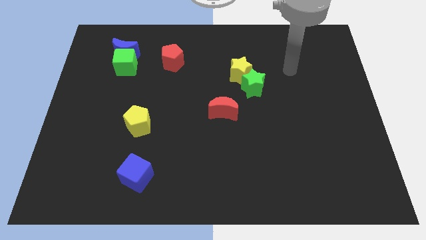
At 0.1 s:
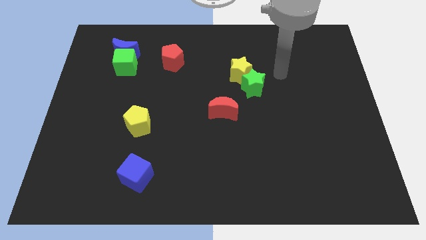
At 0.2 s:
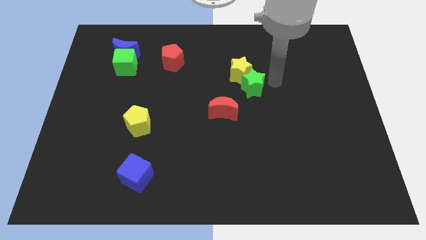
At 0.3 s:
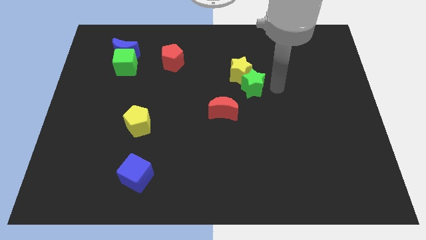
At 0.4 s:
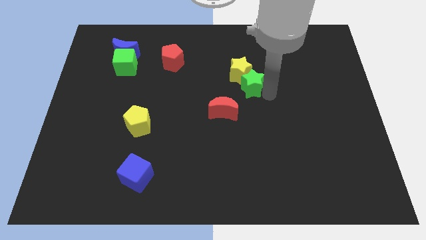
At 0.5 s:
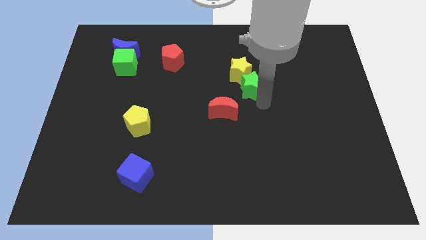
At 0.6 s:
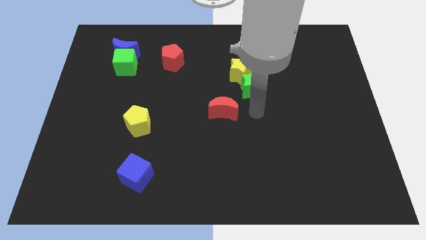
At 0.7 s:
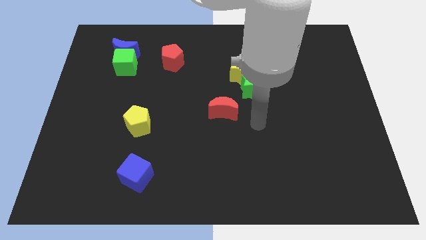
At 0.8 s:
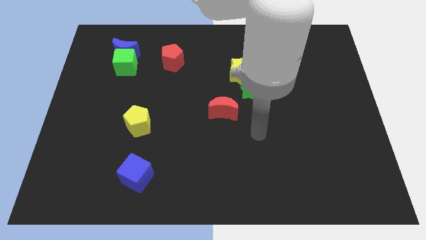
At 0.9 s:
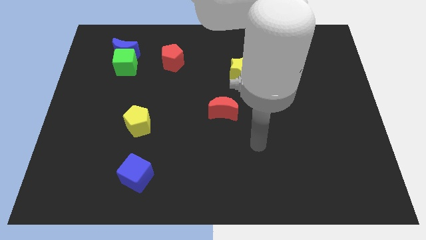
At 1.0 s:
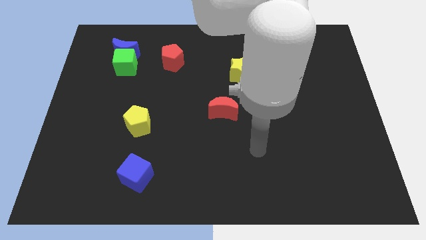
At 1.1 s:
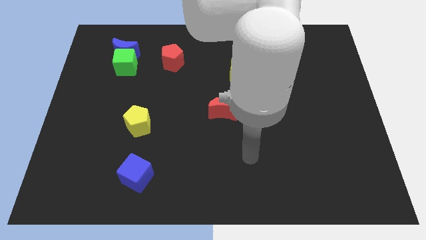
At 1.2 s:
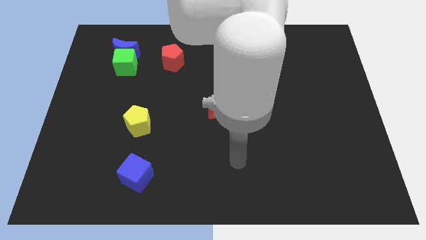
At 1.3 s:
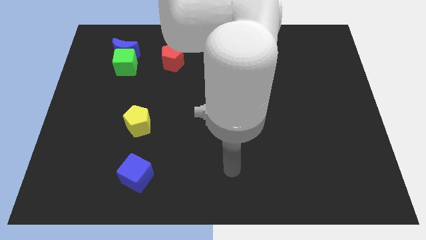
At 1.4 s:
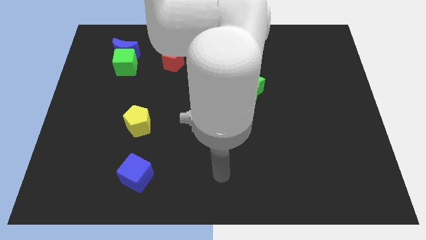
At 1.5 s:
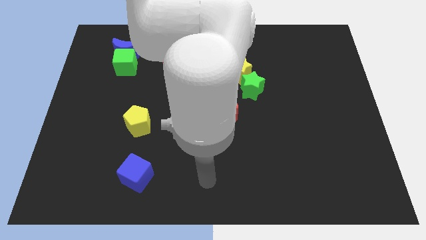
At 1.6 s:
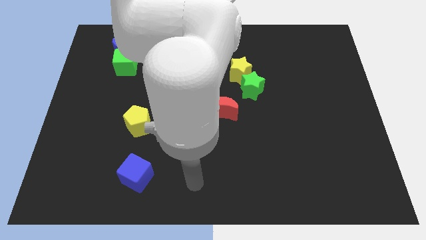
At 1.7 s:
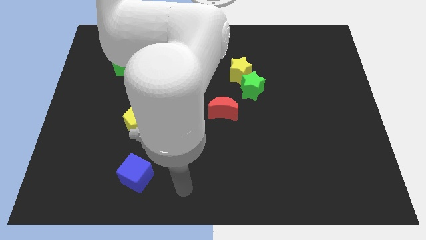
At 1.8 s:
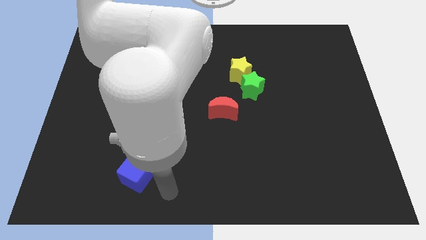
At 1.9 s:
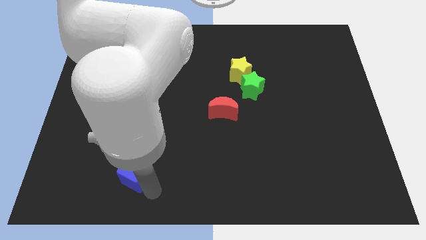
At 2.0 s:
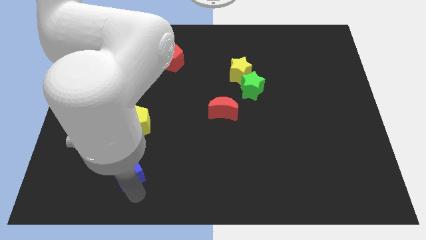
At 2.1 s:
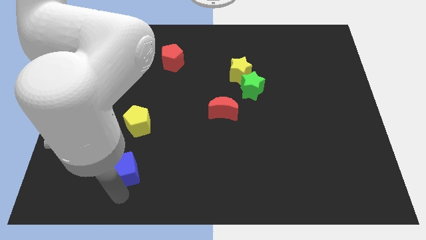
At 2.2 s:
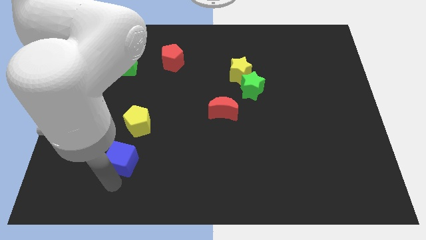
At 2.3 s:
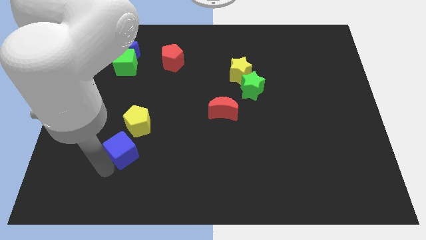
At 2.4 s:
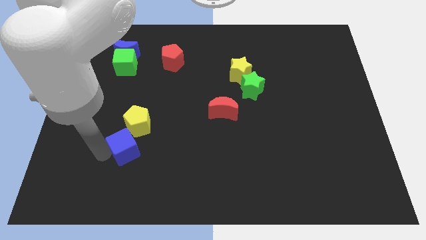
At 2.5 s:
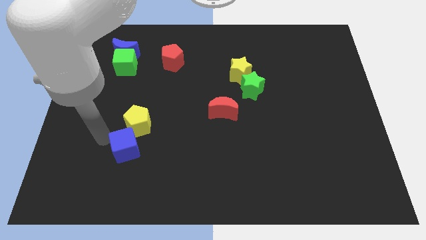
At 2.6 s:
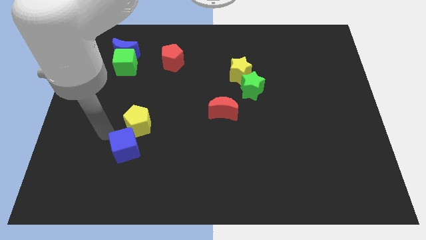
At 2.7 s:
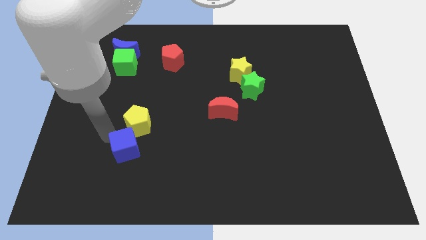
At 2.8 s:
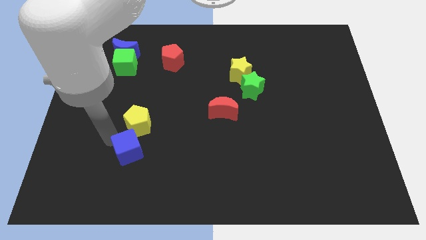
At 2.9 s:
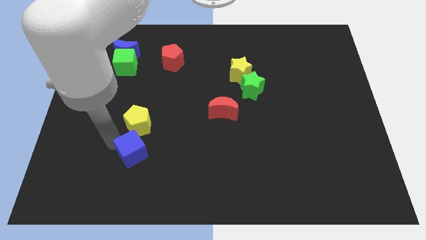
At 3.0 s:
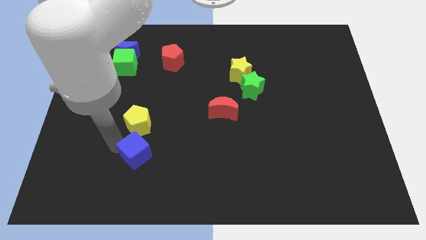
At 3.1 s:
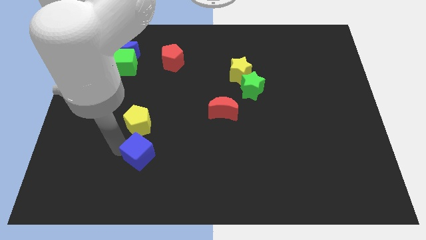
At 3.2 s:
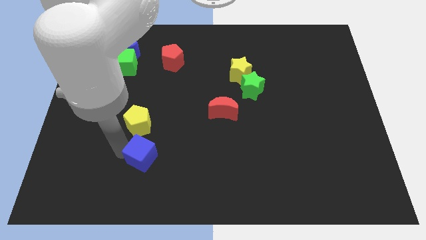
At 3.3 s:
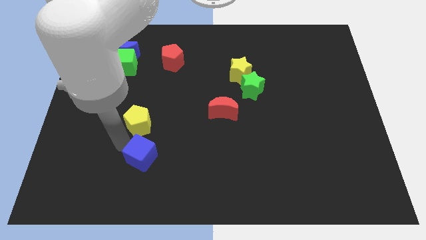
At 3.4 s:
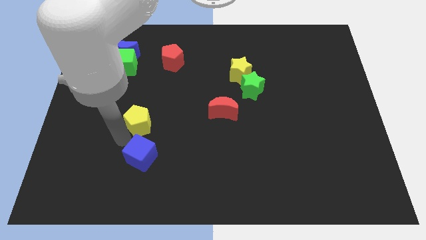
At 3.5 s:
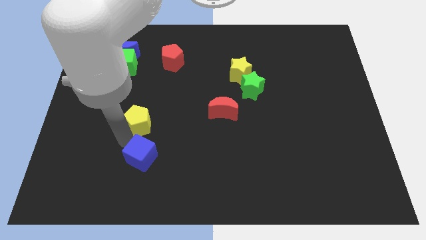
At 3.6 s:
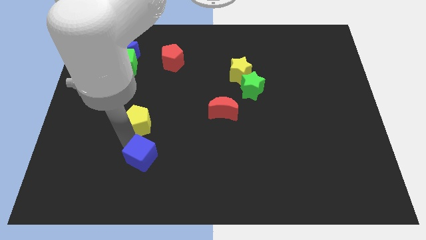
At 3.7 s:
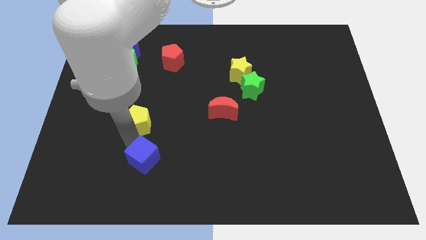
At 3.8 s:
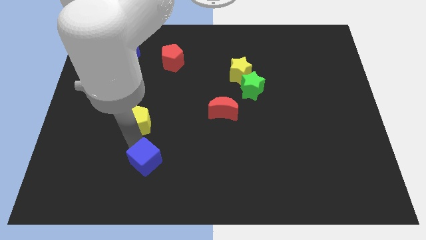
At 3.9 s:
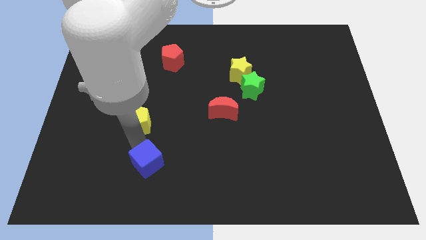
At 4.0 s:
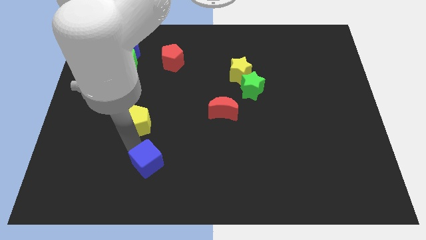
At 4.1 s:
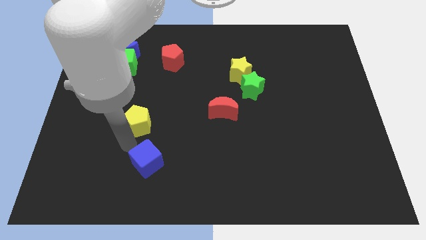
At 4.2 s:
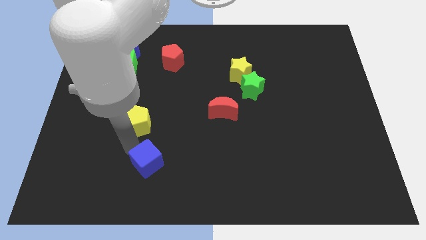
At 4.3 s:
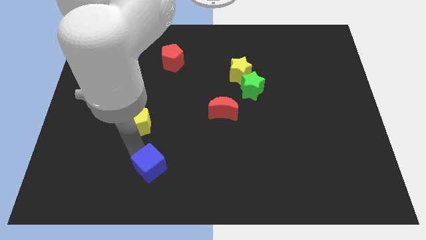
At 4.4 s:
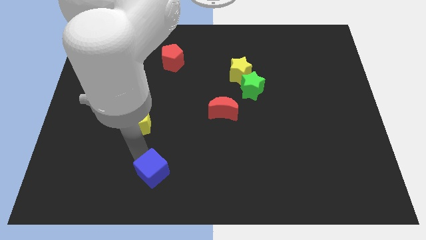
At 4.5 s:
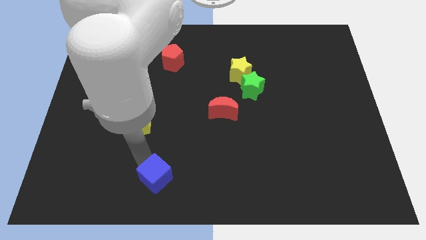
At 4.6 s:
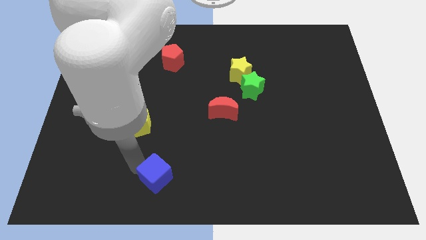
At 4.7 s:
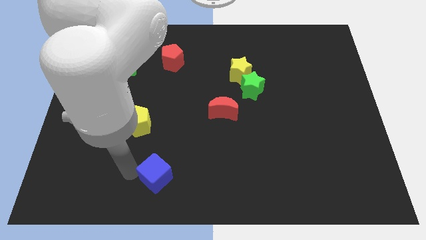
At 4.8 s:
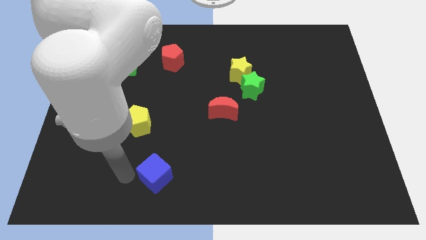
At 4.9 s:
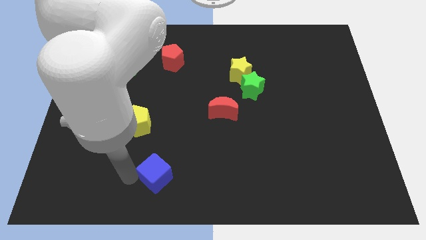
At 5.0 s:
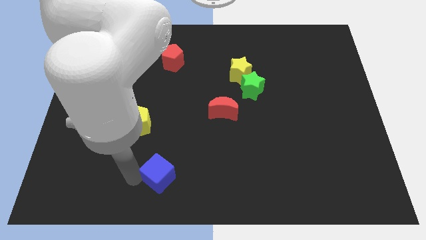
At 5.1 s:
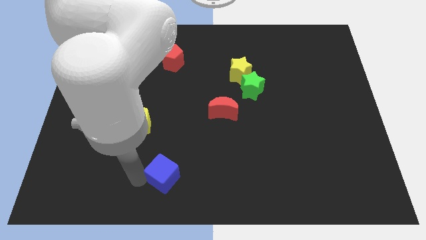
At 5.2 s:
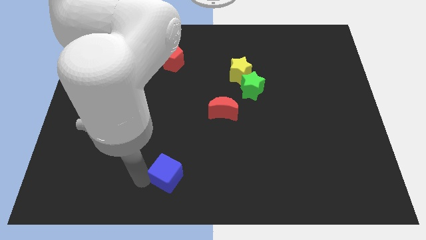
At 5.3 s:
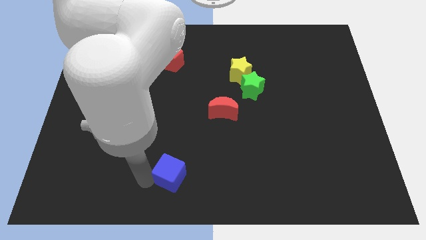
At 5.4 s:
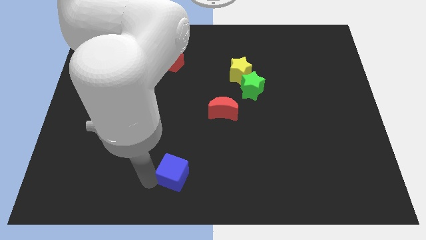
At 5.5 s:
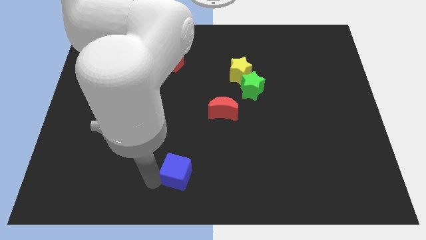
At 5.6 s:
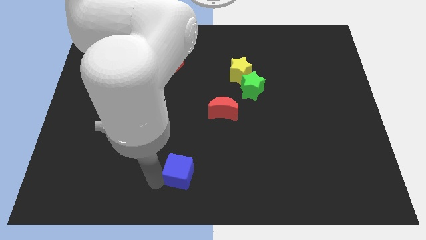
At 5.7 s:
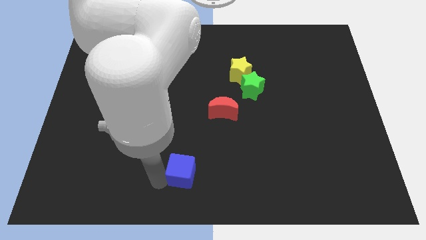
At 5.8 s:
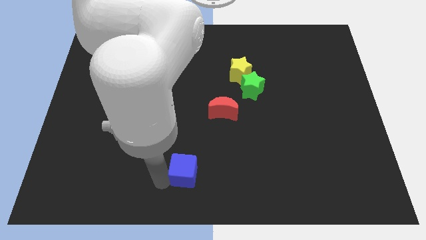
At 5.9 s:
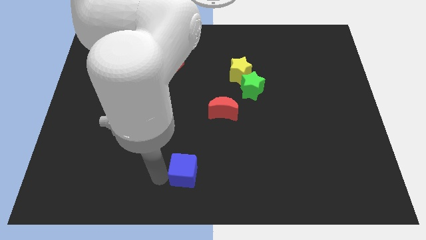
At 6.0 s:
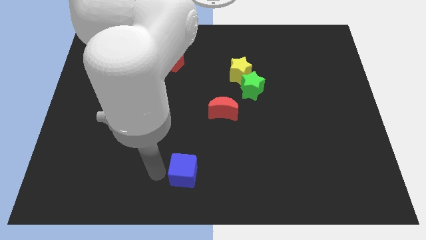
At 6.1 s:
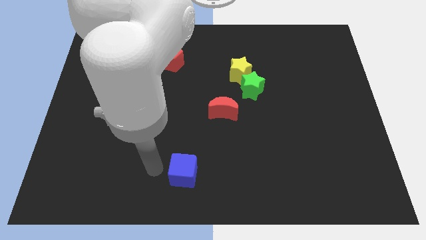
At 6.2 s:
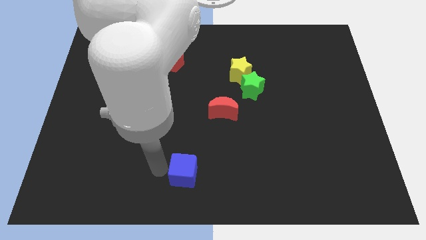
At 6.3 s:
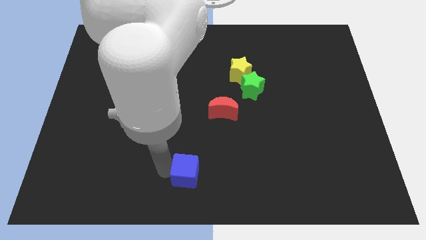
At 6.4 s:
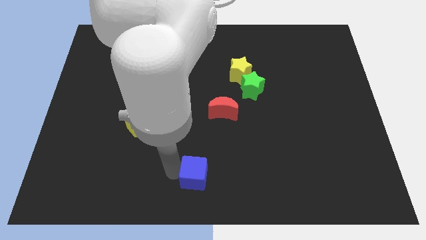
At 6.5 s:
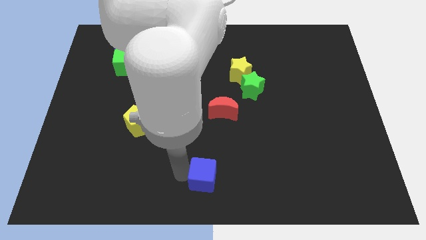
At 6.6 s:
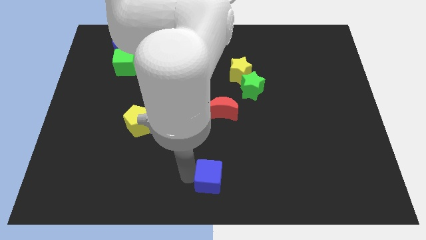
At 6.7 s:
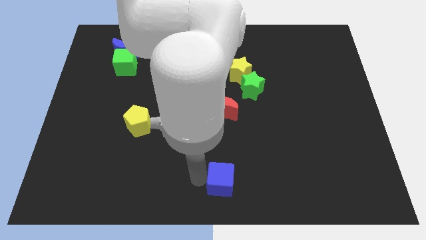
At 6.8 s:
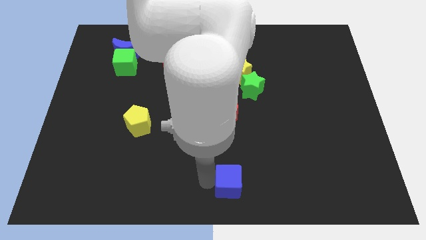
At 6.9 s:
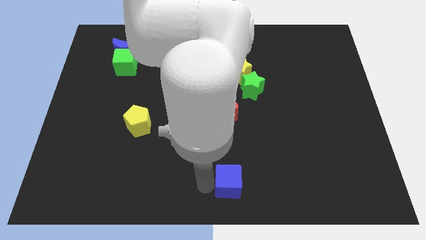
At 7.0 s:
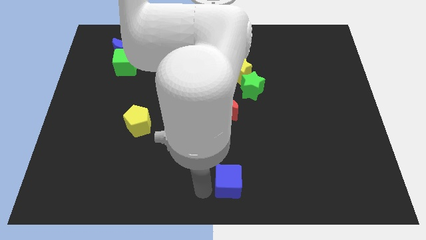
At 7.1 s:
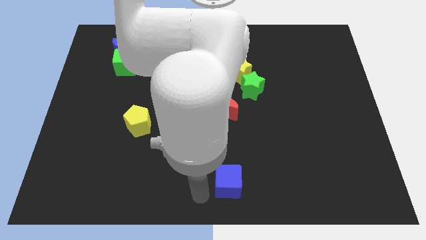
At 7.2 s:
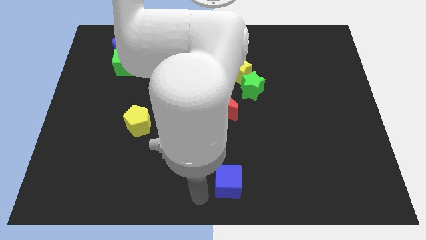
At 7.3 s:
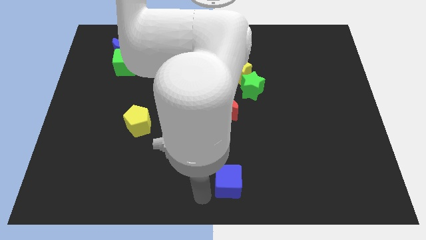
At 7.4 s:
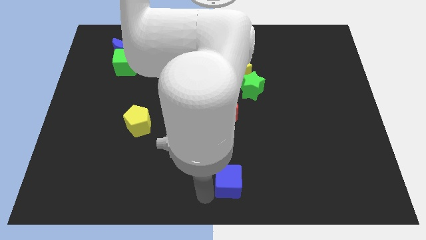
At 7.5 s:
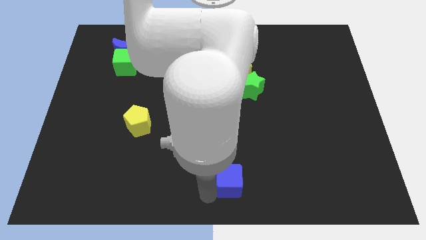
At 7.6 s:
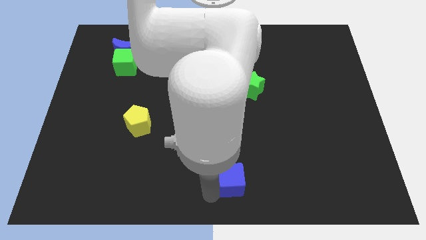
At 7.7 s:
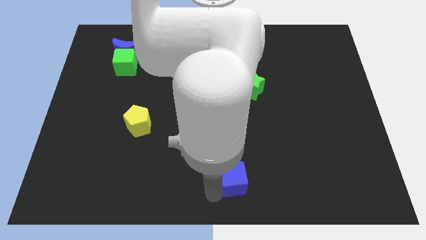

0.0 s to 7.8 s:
move the blue cube to the right

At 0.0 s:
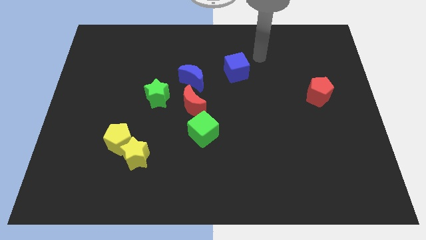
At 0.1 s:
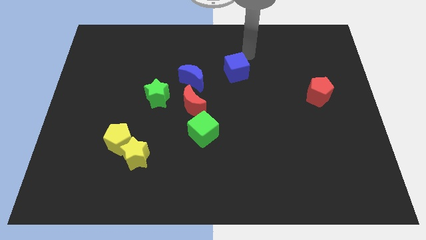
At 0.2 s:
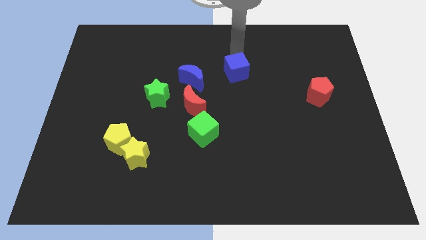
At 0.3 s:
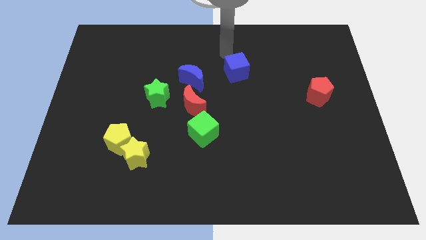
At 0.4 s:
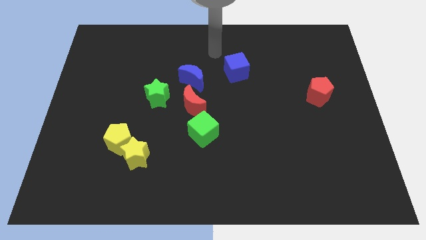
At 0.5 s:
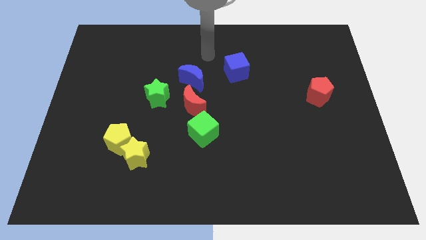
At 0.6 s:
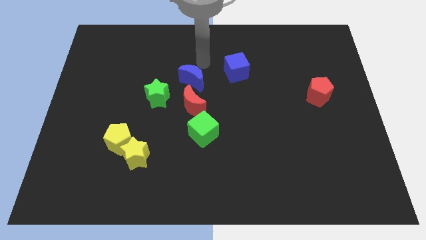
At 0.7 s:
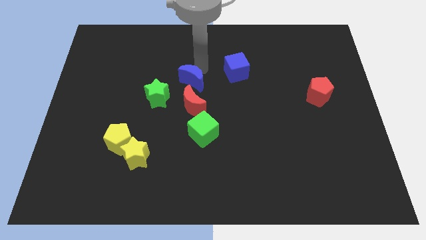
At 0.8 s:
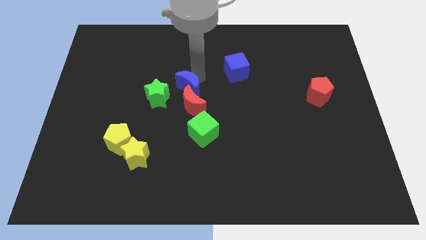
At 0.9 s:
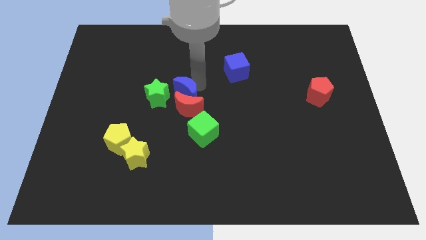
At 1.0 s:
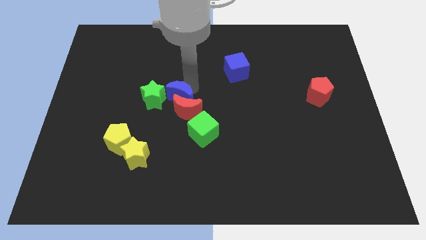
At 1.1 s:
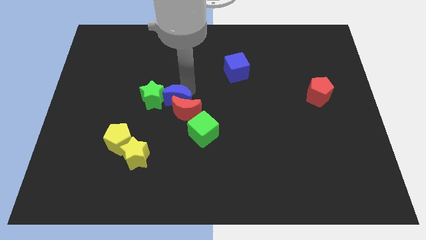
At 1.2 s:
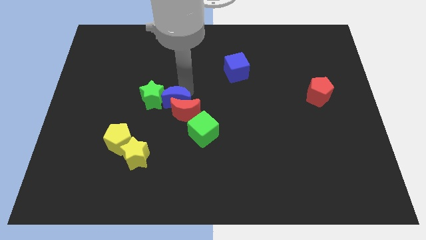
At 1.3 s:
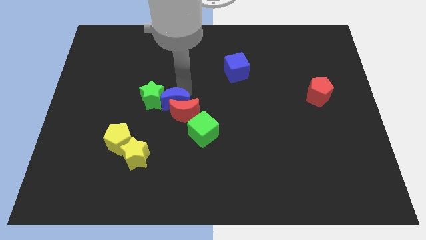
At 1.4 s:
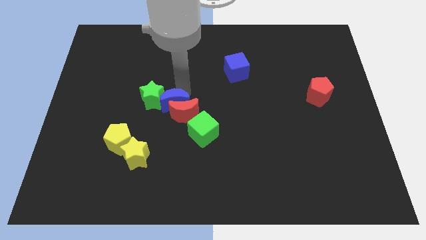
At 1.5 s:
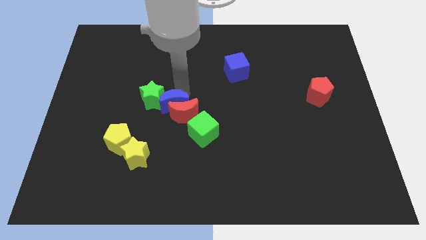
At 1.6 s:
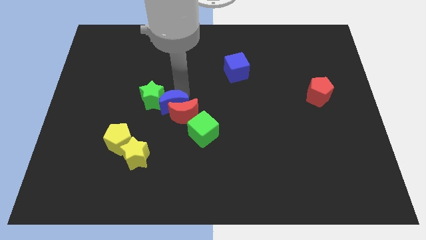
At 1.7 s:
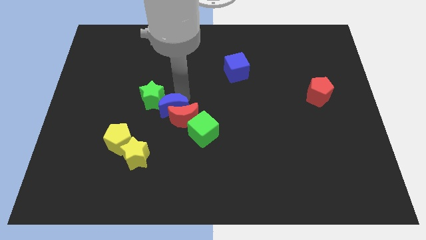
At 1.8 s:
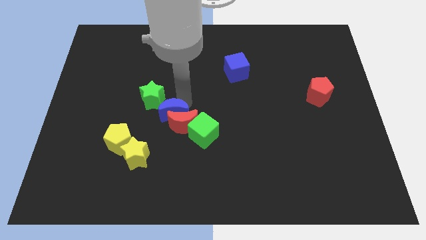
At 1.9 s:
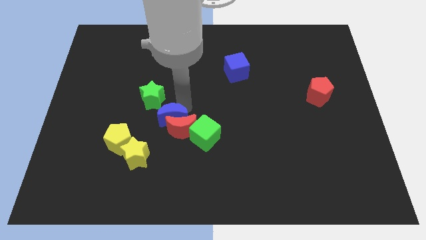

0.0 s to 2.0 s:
move the red moon a little bit downwards
